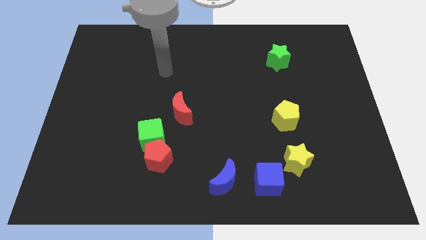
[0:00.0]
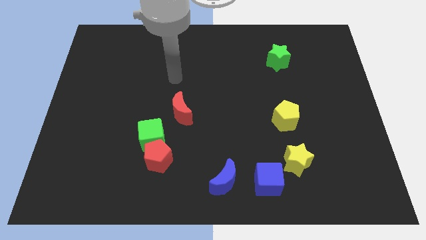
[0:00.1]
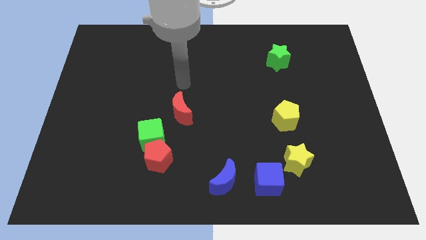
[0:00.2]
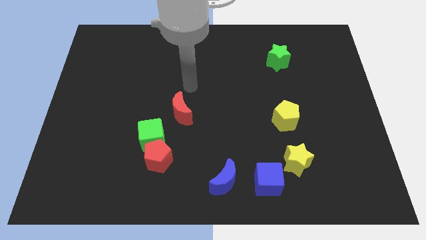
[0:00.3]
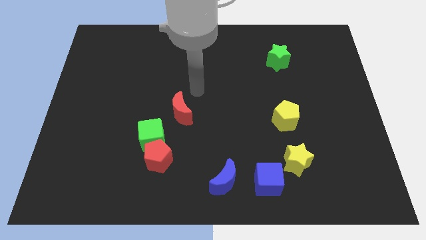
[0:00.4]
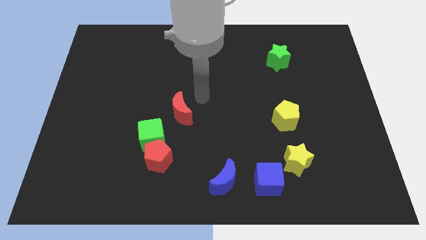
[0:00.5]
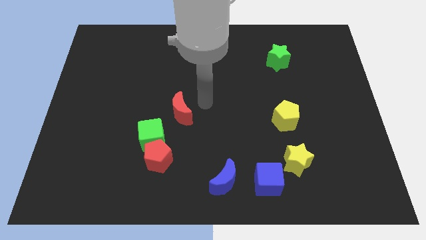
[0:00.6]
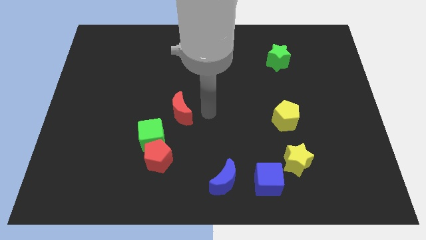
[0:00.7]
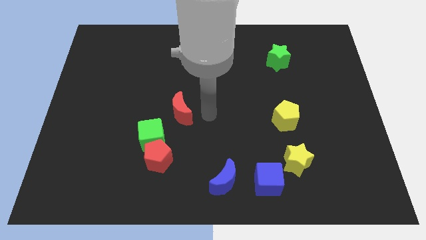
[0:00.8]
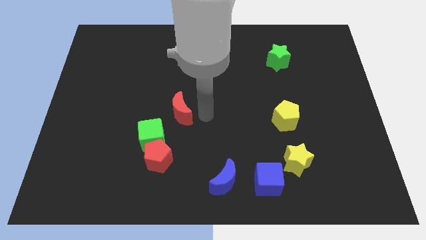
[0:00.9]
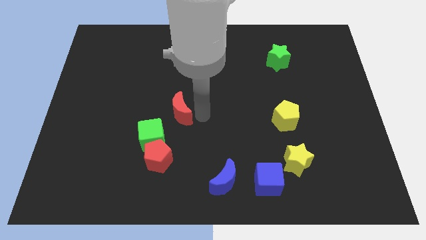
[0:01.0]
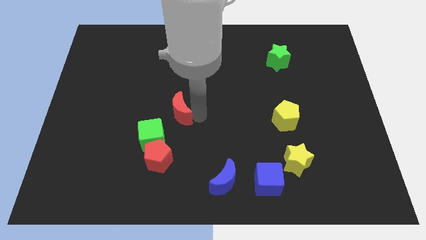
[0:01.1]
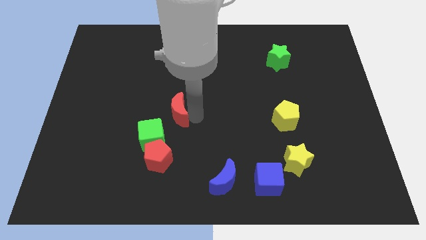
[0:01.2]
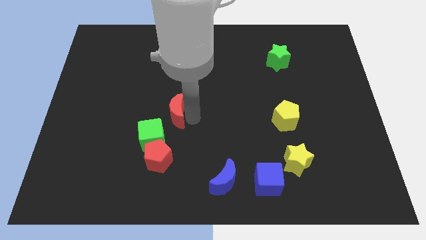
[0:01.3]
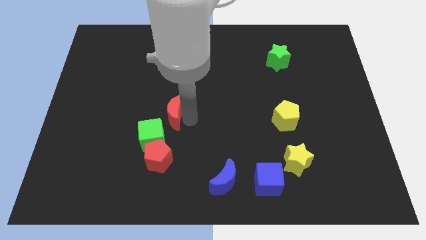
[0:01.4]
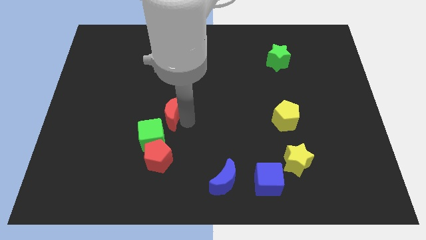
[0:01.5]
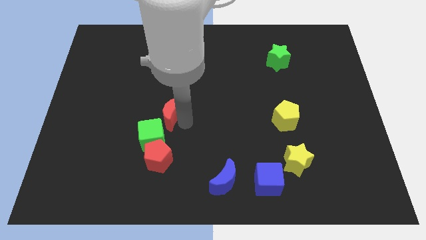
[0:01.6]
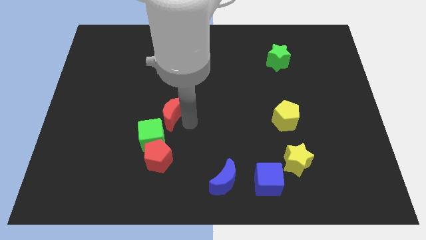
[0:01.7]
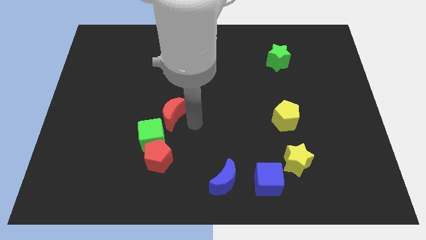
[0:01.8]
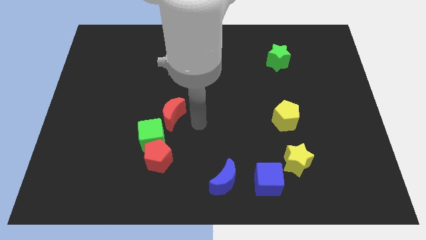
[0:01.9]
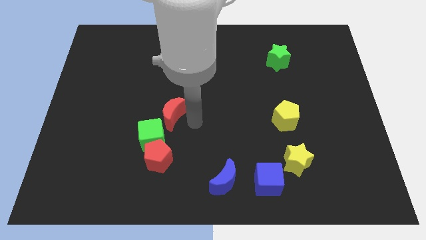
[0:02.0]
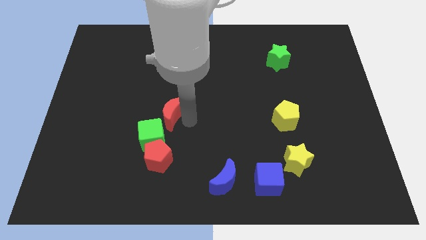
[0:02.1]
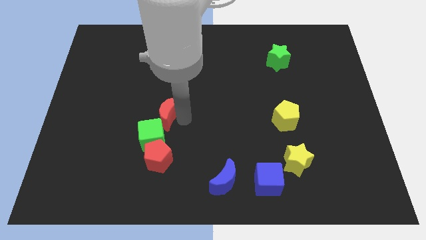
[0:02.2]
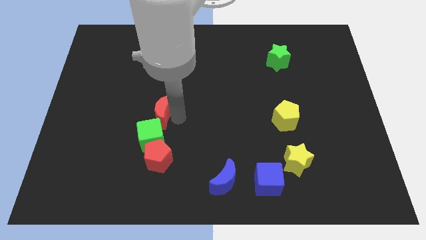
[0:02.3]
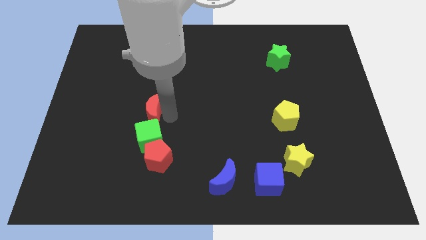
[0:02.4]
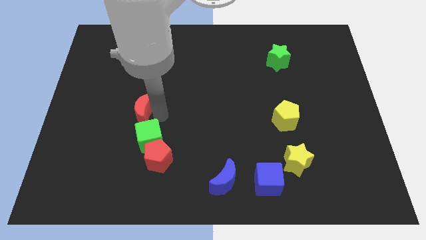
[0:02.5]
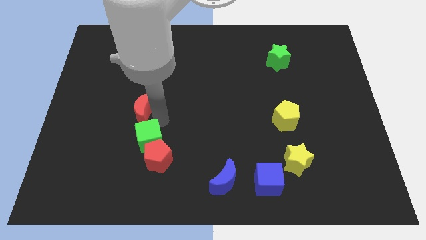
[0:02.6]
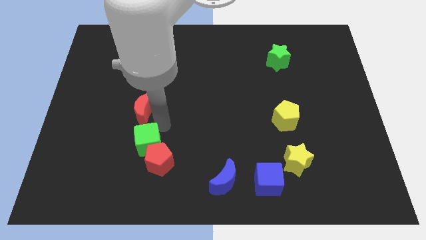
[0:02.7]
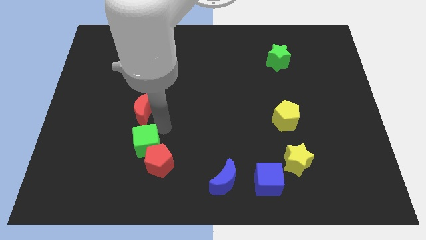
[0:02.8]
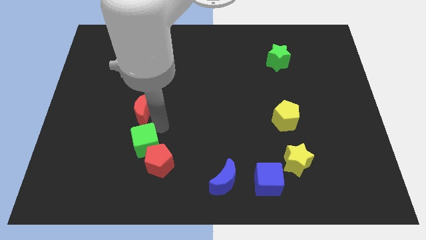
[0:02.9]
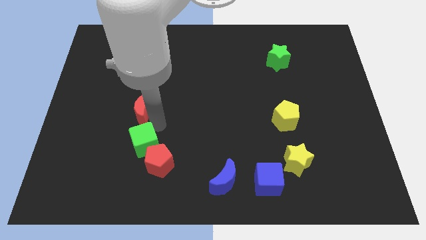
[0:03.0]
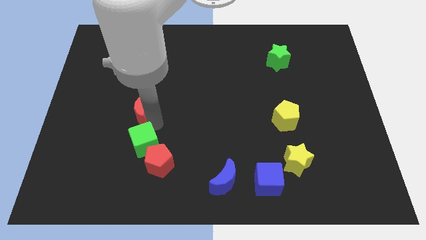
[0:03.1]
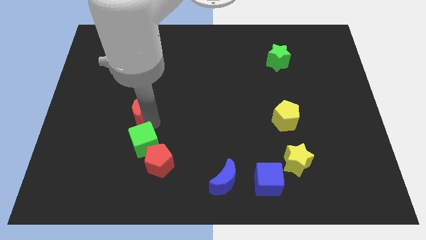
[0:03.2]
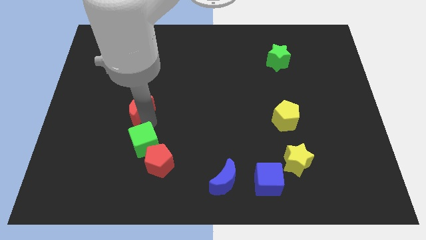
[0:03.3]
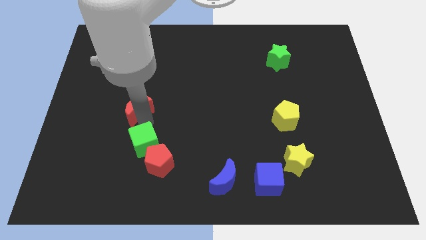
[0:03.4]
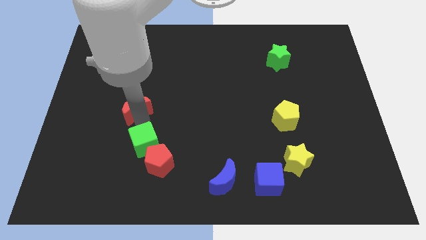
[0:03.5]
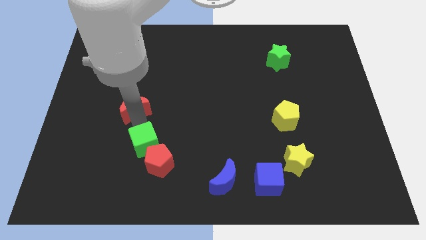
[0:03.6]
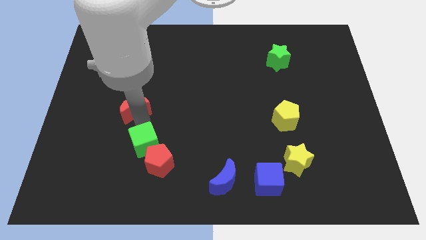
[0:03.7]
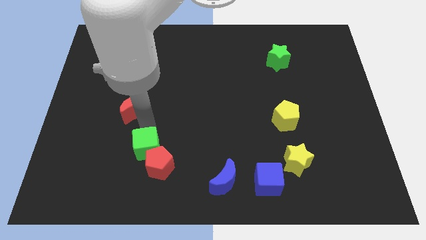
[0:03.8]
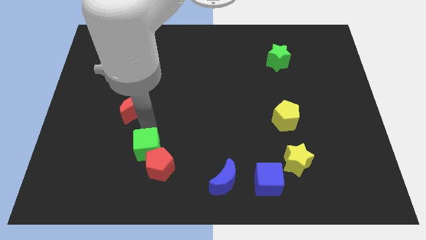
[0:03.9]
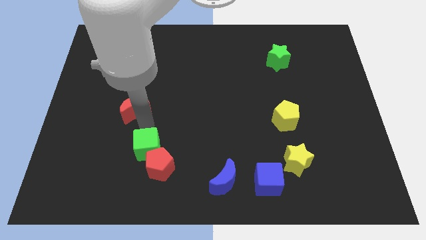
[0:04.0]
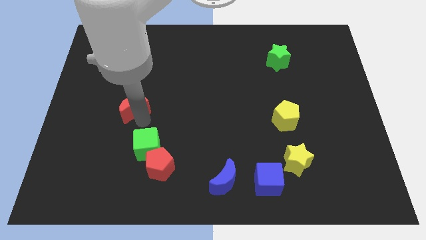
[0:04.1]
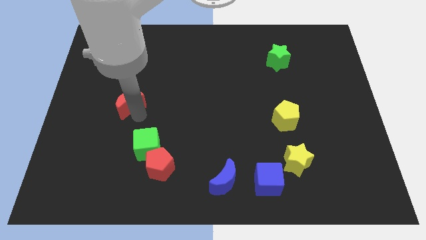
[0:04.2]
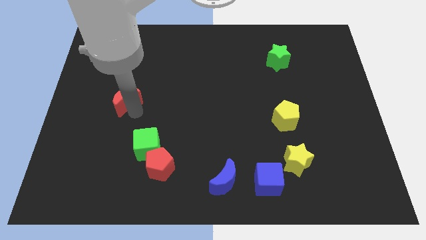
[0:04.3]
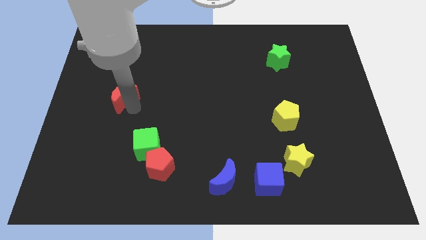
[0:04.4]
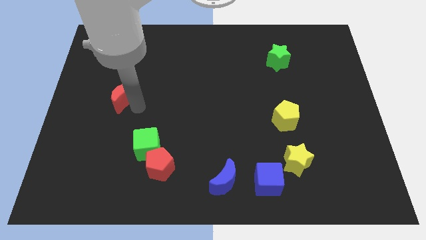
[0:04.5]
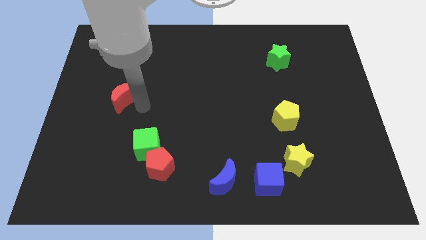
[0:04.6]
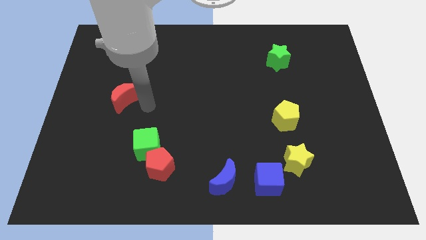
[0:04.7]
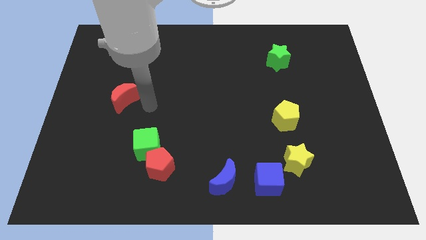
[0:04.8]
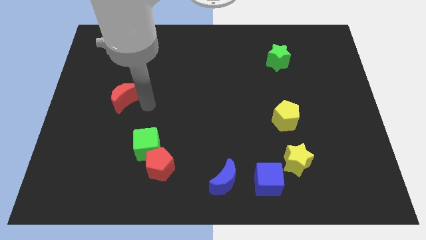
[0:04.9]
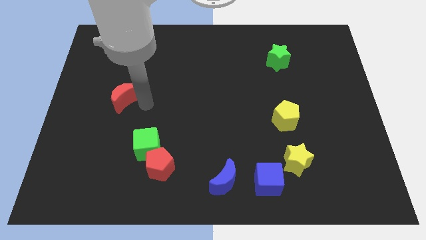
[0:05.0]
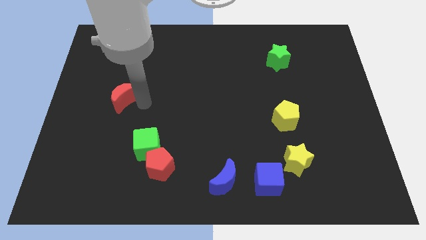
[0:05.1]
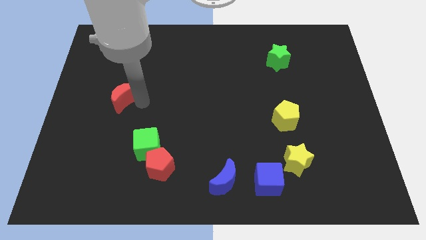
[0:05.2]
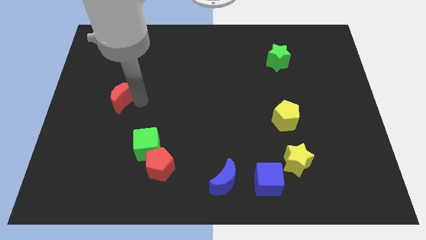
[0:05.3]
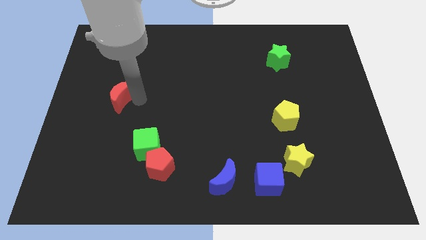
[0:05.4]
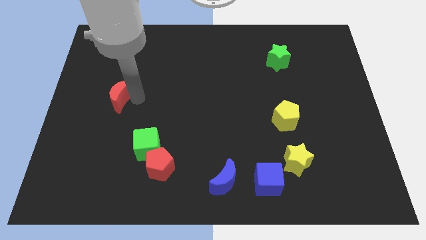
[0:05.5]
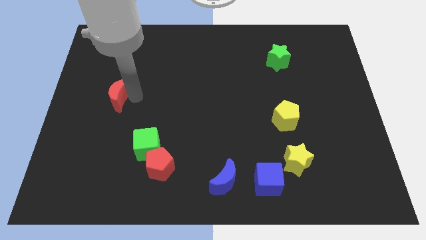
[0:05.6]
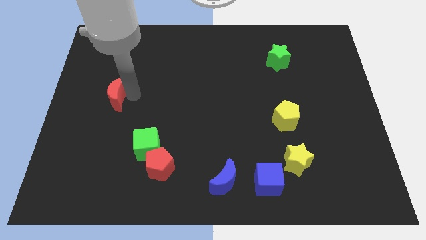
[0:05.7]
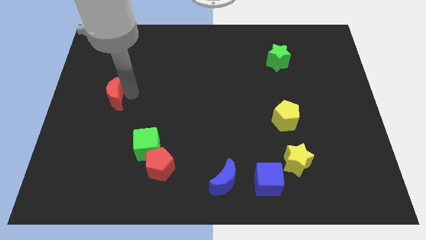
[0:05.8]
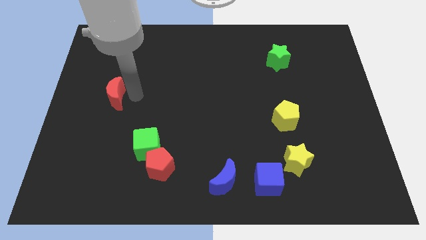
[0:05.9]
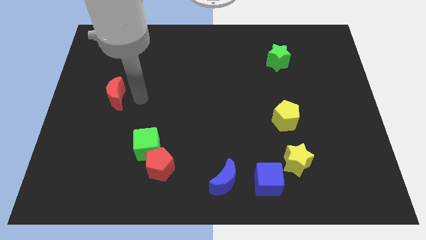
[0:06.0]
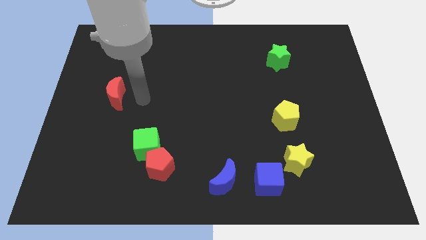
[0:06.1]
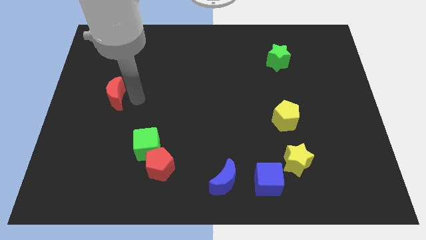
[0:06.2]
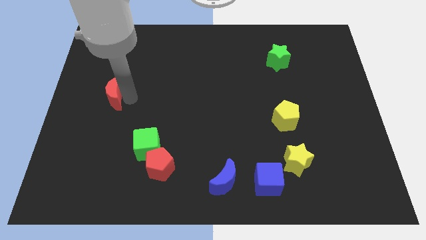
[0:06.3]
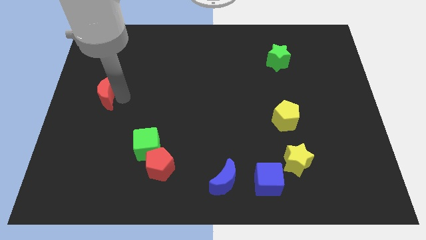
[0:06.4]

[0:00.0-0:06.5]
move the red moon to the left side
